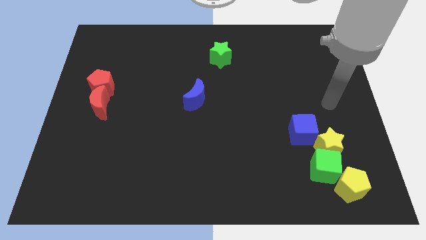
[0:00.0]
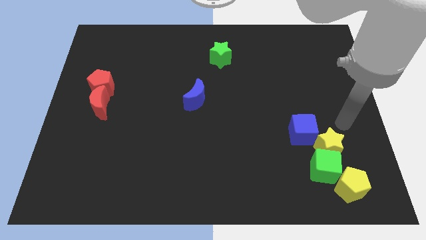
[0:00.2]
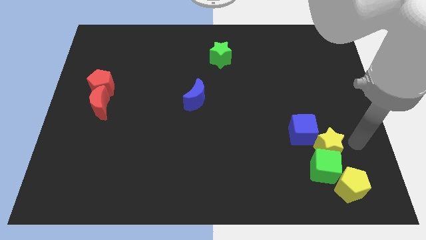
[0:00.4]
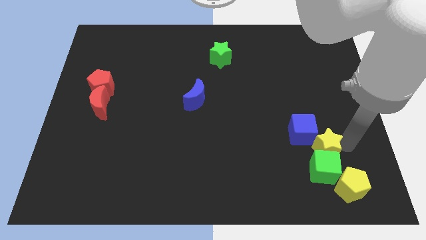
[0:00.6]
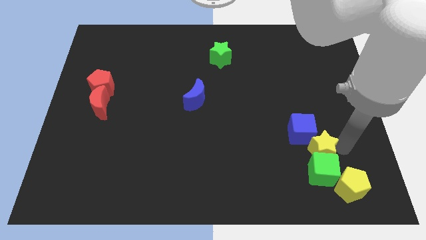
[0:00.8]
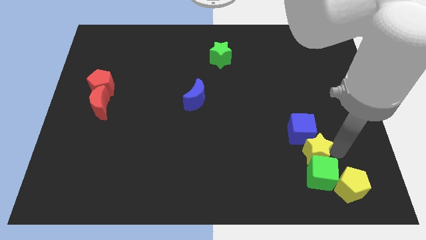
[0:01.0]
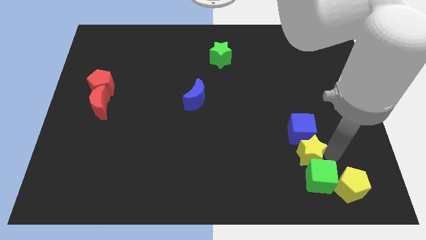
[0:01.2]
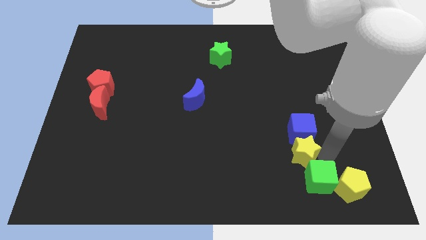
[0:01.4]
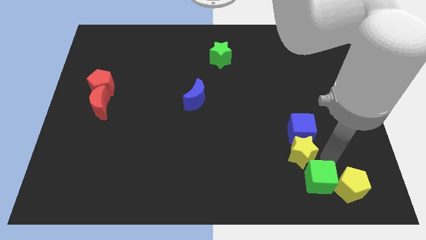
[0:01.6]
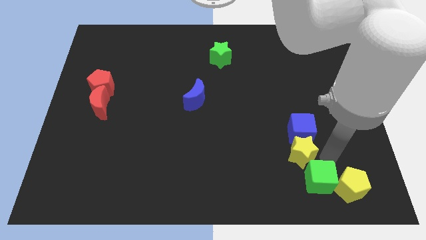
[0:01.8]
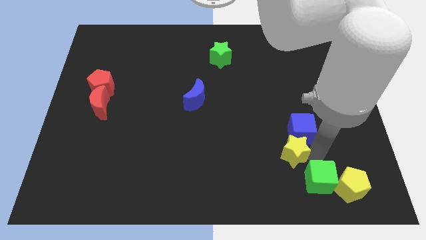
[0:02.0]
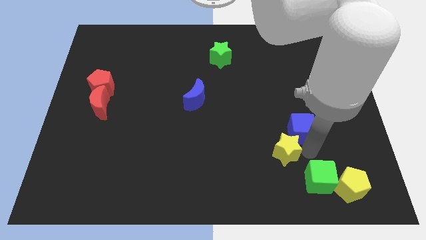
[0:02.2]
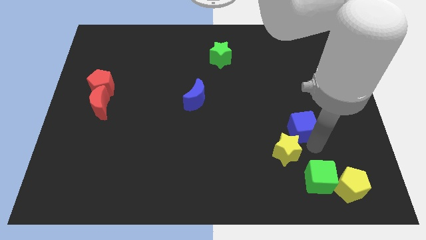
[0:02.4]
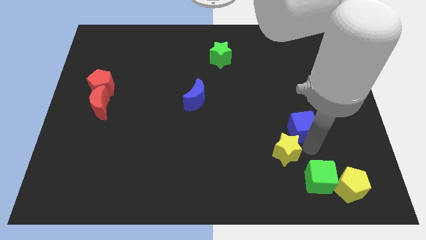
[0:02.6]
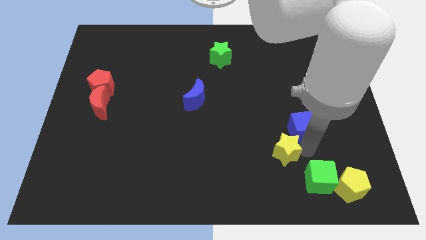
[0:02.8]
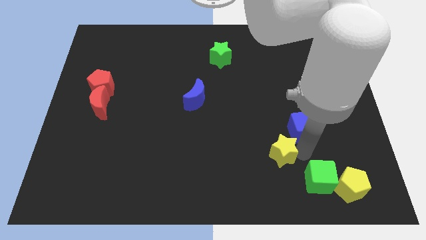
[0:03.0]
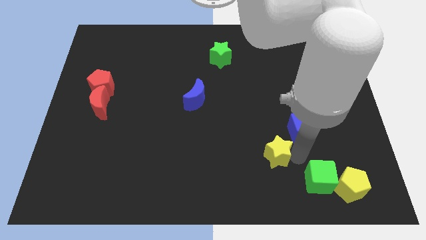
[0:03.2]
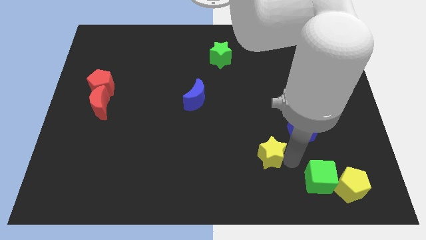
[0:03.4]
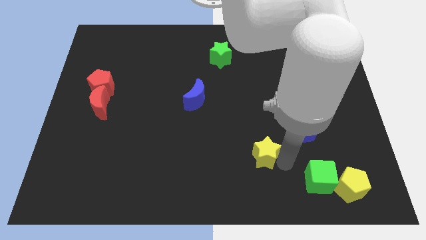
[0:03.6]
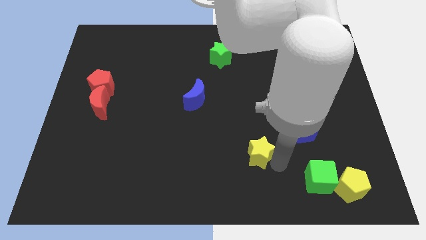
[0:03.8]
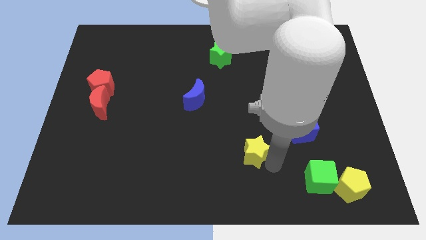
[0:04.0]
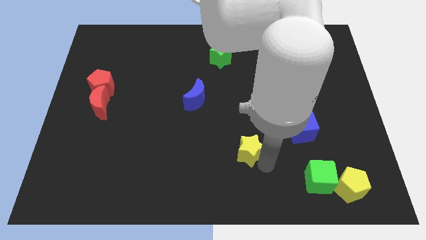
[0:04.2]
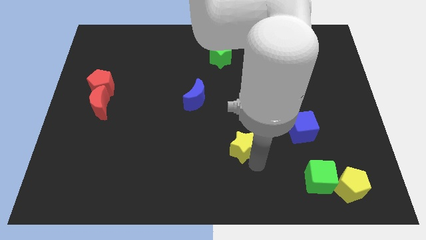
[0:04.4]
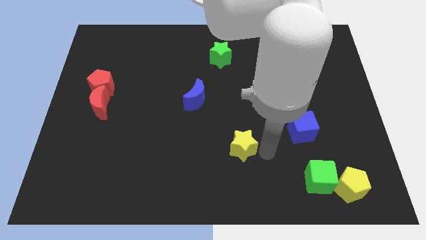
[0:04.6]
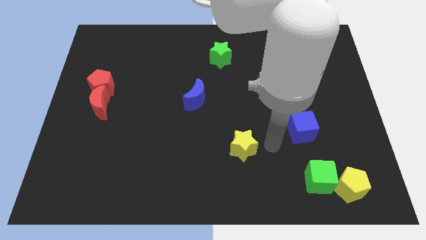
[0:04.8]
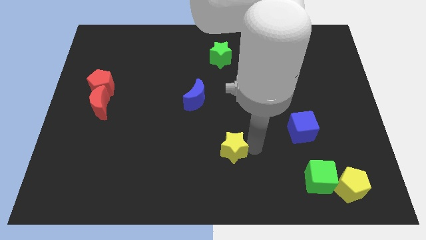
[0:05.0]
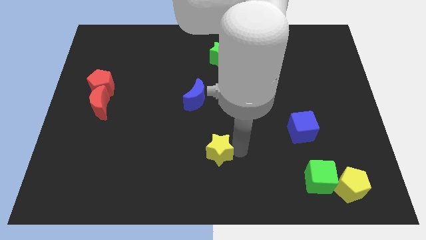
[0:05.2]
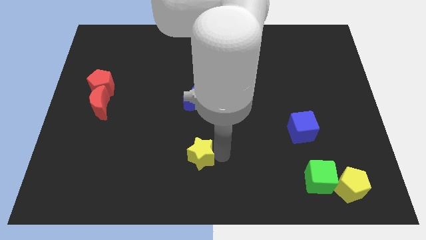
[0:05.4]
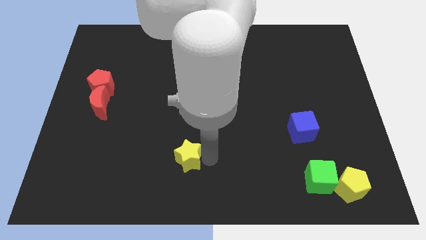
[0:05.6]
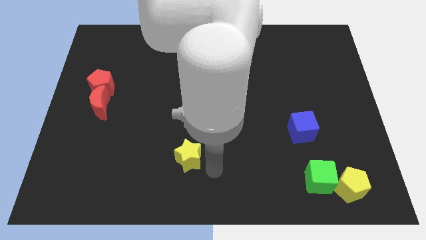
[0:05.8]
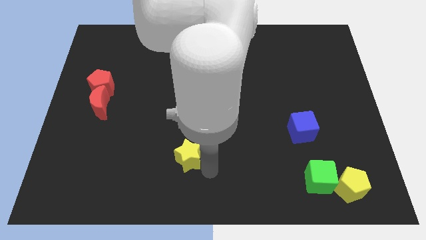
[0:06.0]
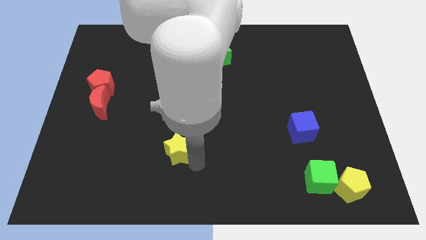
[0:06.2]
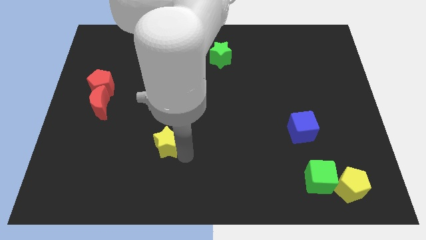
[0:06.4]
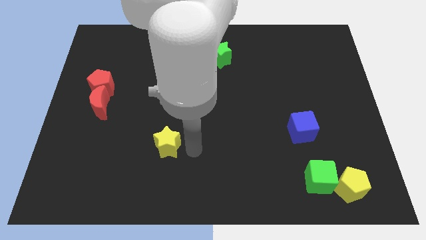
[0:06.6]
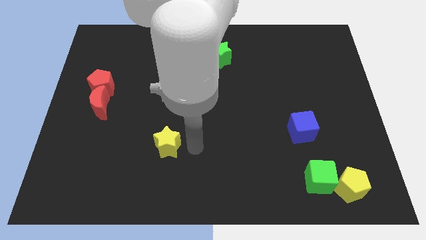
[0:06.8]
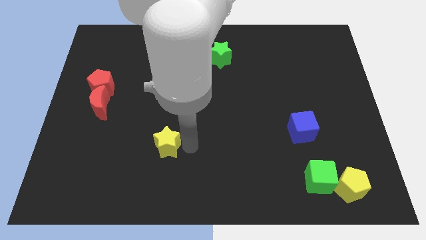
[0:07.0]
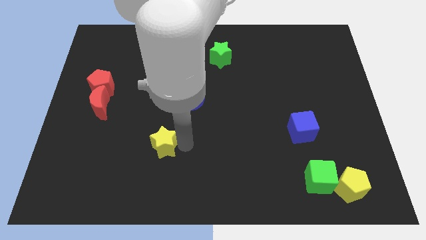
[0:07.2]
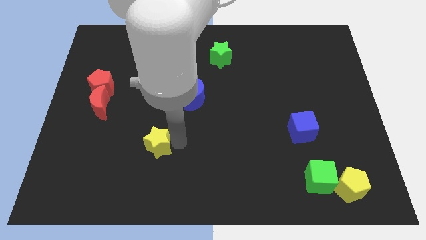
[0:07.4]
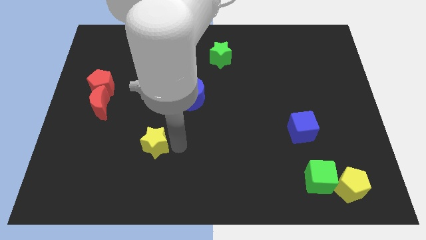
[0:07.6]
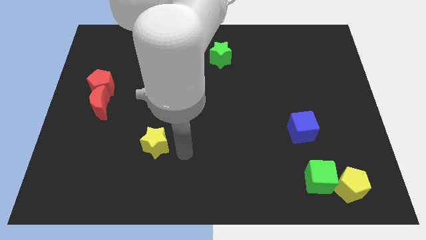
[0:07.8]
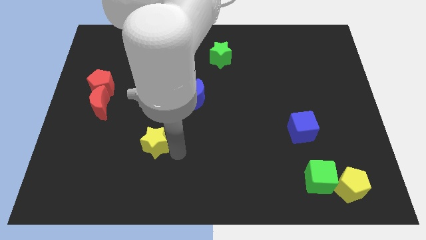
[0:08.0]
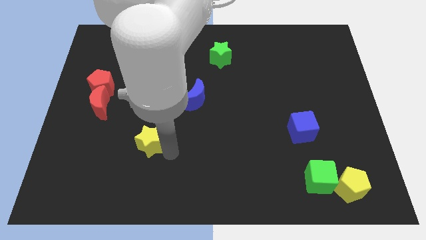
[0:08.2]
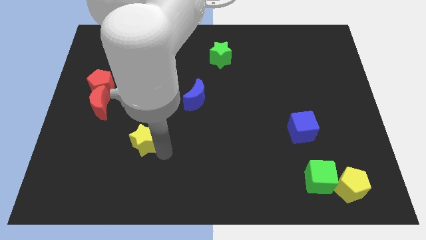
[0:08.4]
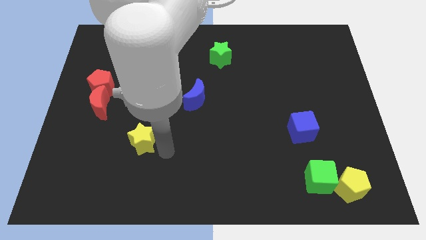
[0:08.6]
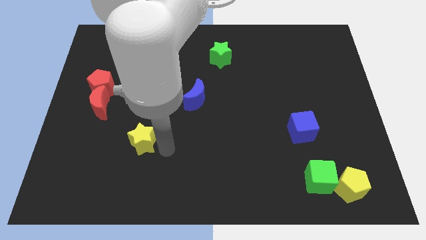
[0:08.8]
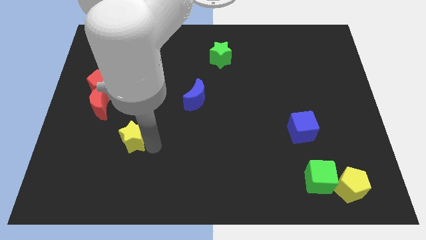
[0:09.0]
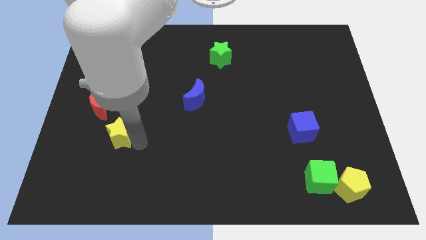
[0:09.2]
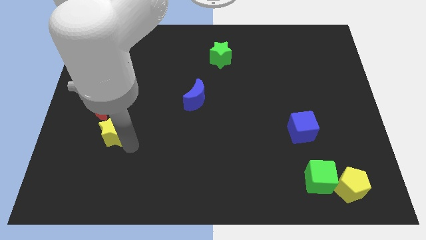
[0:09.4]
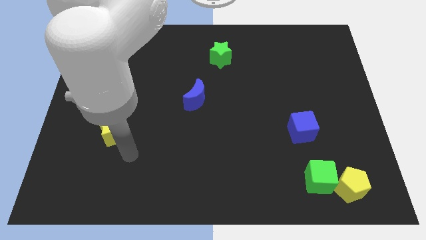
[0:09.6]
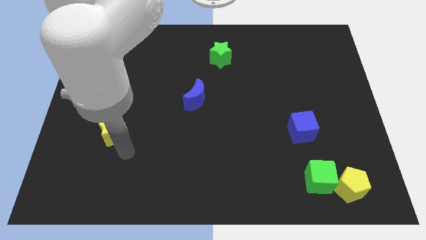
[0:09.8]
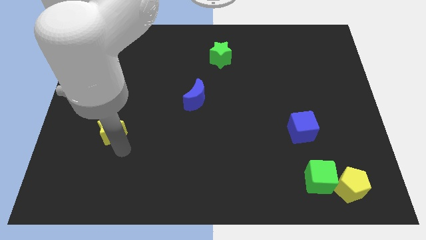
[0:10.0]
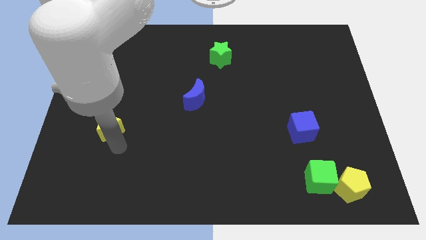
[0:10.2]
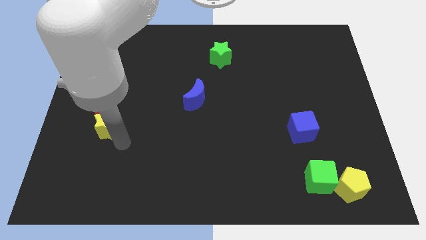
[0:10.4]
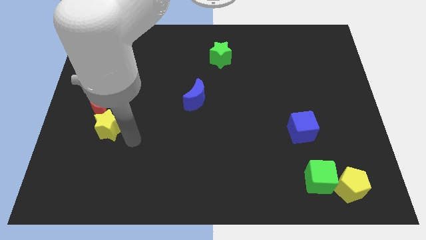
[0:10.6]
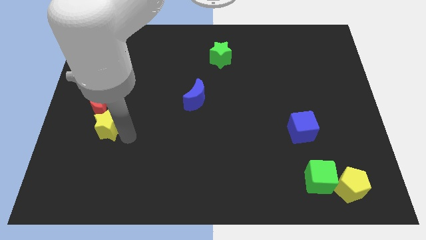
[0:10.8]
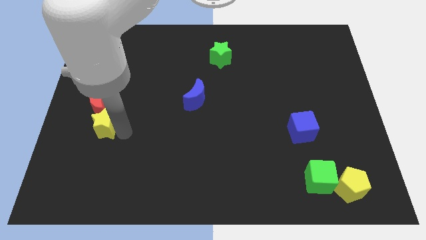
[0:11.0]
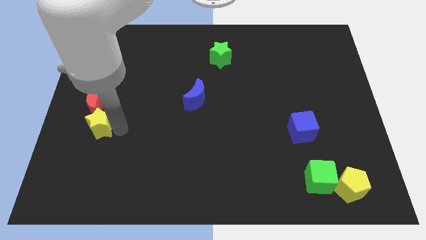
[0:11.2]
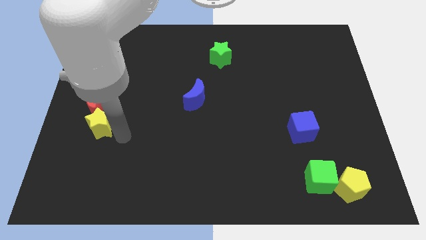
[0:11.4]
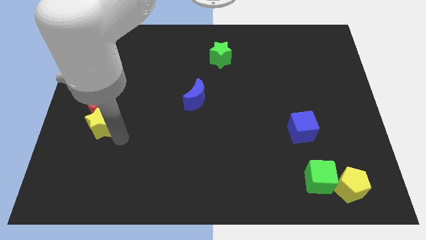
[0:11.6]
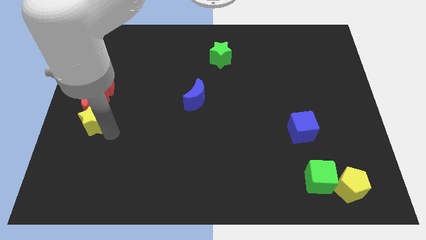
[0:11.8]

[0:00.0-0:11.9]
push the yellow star to the center left
